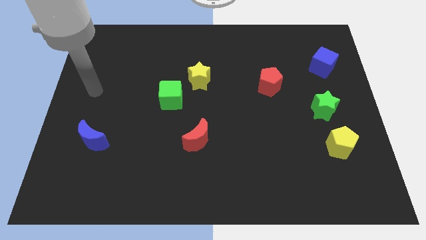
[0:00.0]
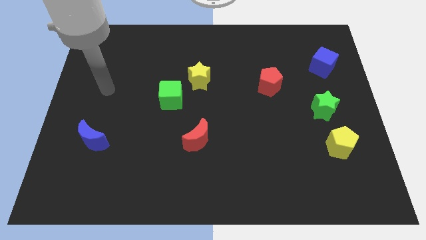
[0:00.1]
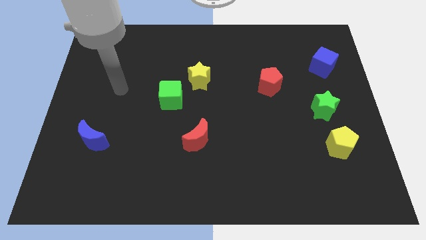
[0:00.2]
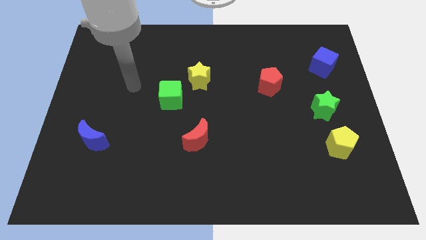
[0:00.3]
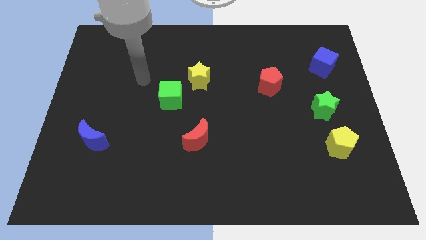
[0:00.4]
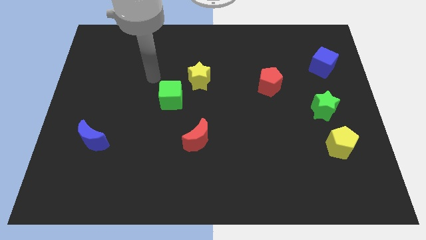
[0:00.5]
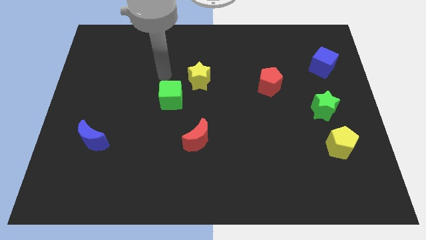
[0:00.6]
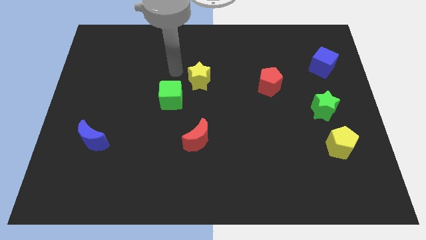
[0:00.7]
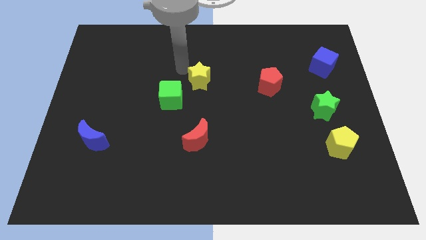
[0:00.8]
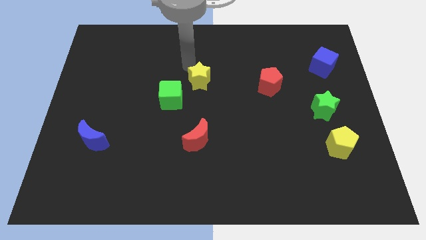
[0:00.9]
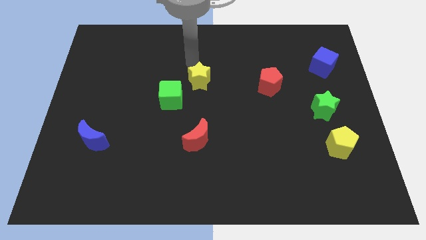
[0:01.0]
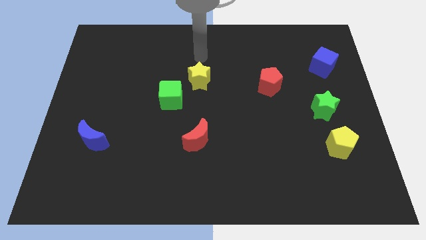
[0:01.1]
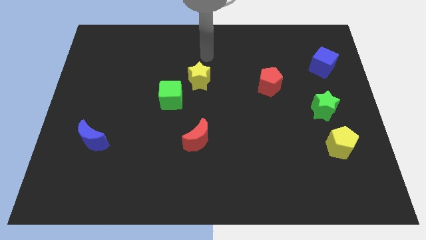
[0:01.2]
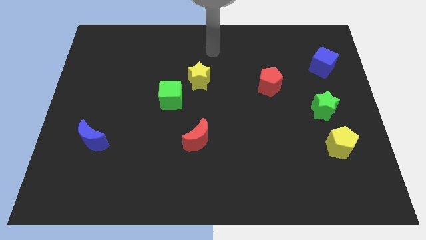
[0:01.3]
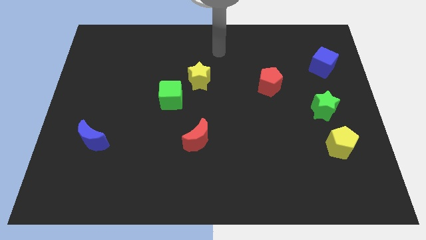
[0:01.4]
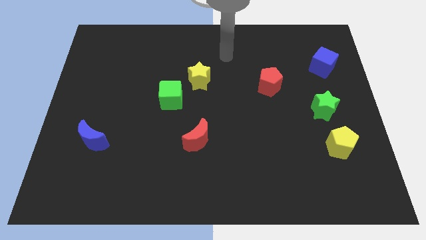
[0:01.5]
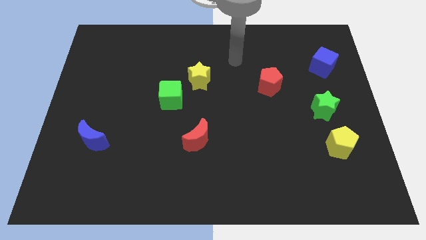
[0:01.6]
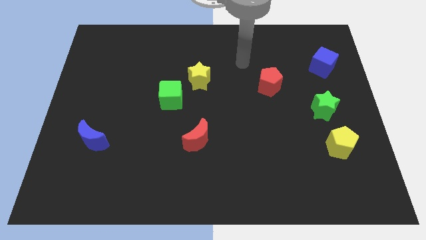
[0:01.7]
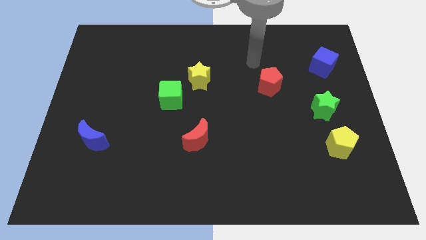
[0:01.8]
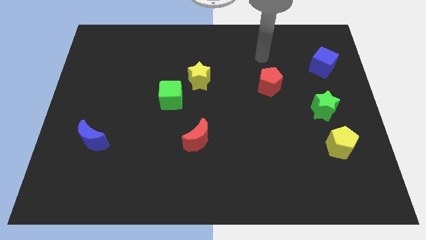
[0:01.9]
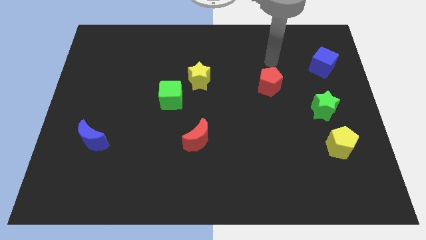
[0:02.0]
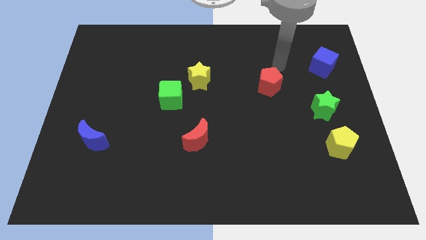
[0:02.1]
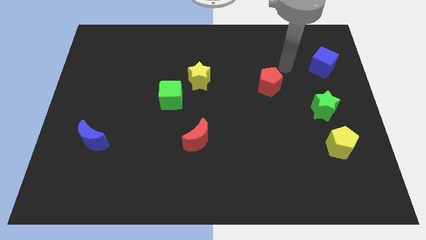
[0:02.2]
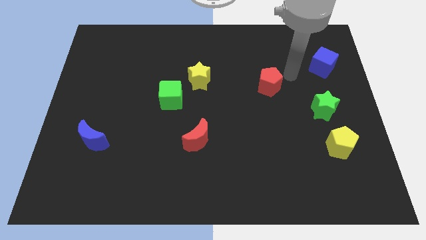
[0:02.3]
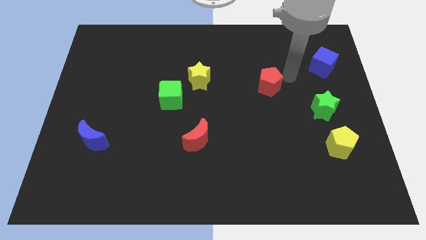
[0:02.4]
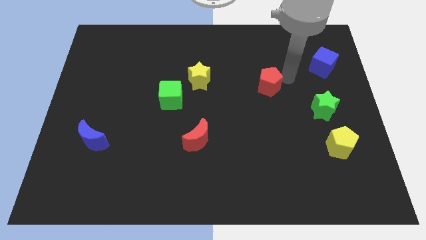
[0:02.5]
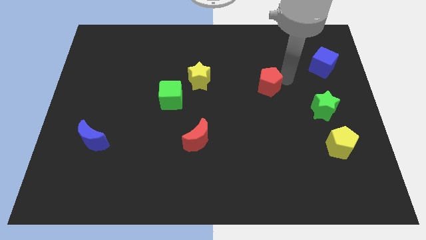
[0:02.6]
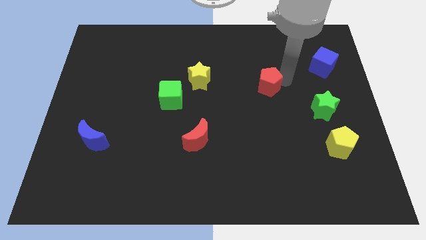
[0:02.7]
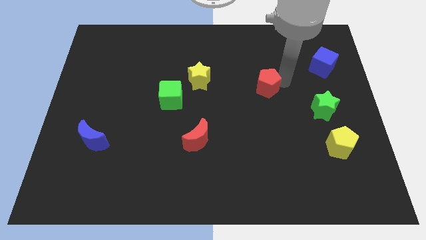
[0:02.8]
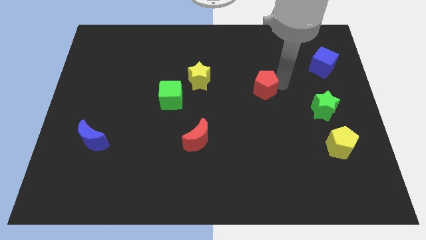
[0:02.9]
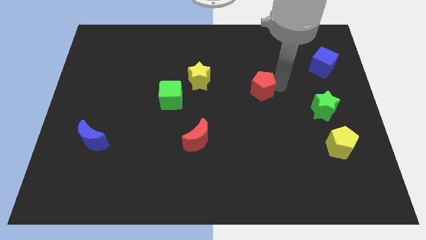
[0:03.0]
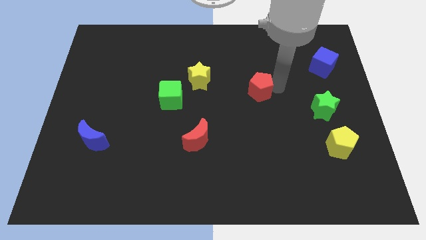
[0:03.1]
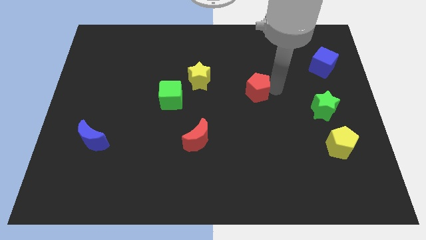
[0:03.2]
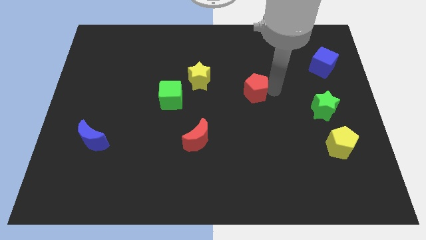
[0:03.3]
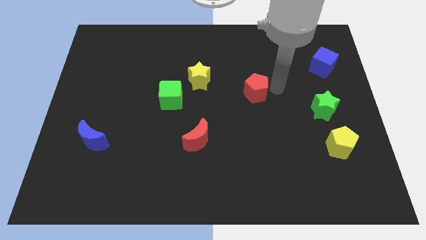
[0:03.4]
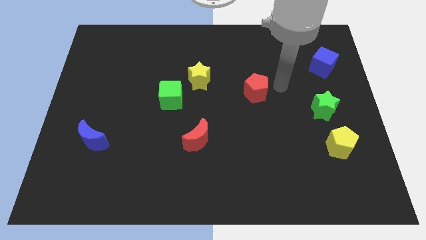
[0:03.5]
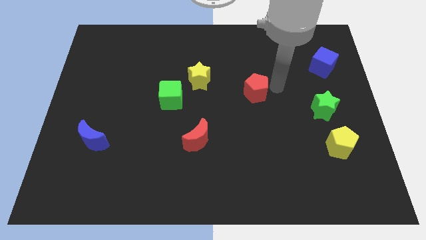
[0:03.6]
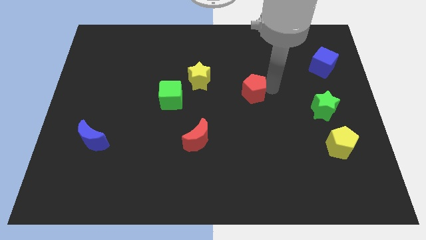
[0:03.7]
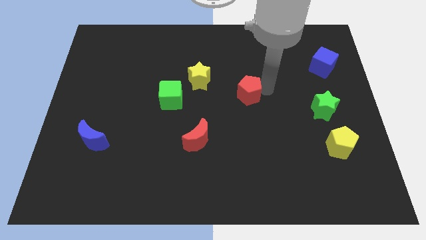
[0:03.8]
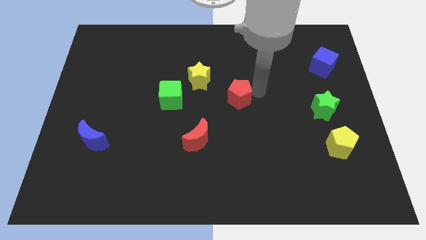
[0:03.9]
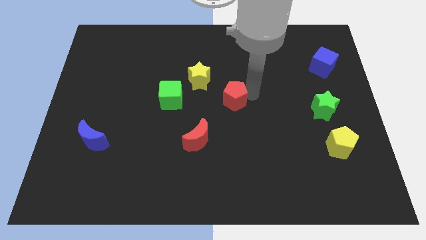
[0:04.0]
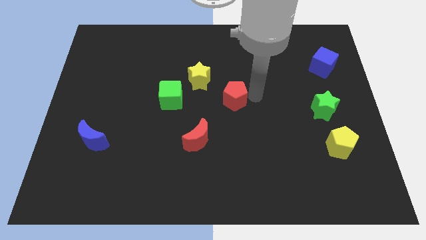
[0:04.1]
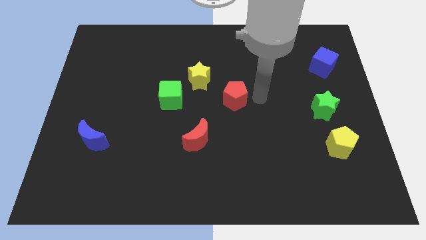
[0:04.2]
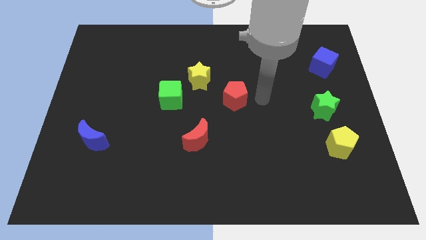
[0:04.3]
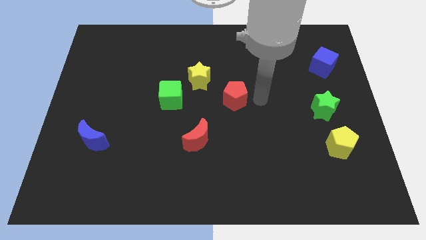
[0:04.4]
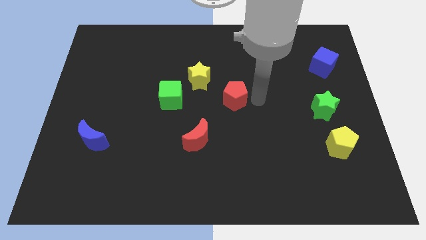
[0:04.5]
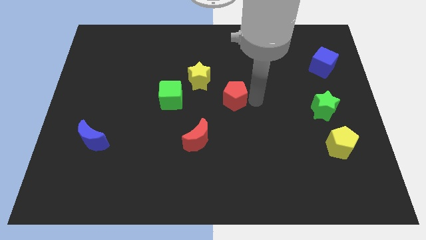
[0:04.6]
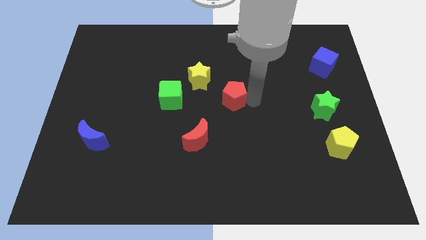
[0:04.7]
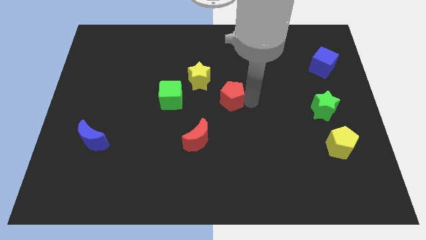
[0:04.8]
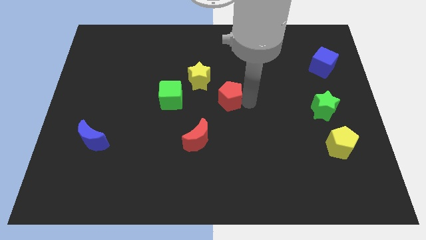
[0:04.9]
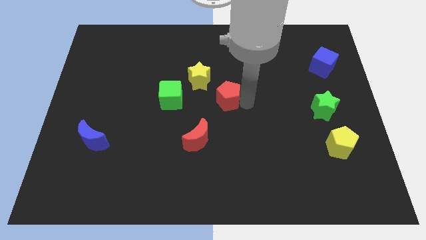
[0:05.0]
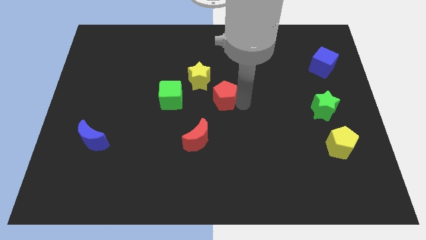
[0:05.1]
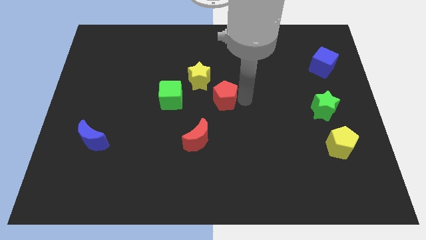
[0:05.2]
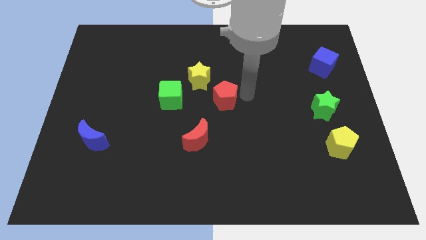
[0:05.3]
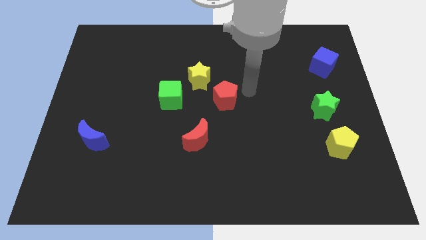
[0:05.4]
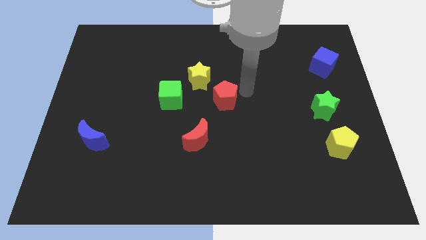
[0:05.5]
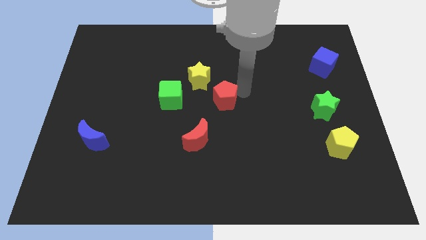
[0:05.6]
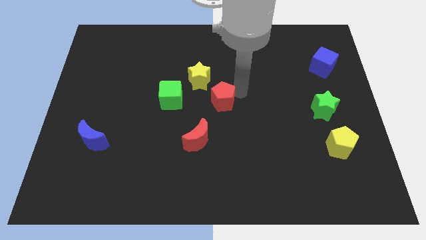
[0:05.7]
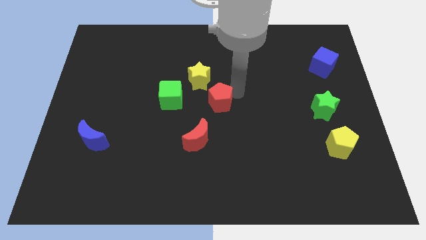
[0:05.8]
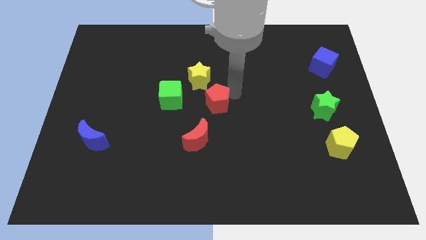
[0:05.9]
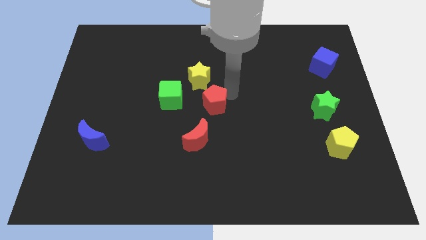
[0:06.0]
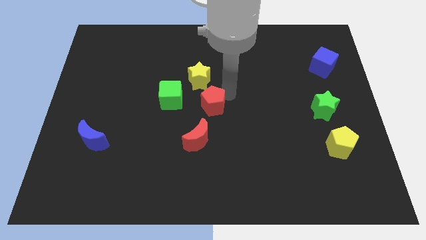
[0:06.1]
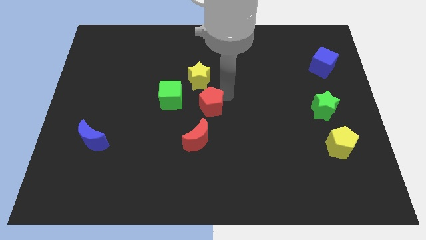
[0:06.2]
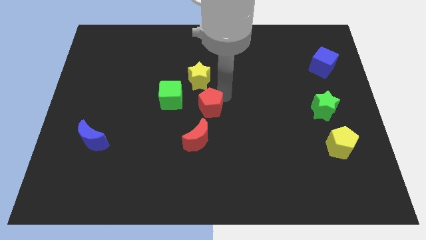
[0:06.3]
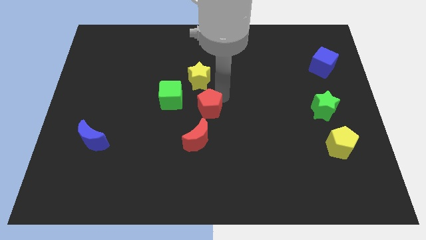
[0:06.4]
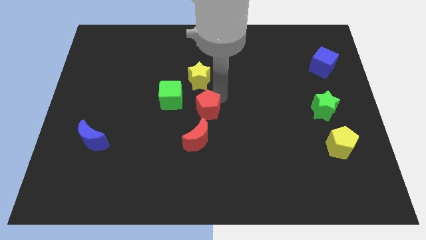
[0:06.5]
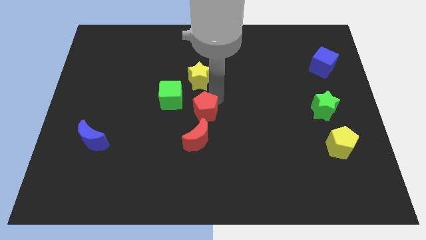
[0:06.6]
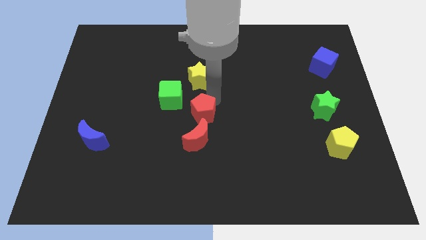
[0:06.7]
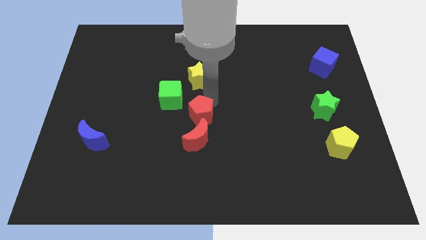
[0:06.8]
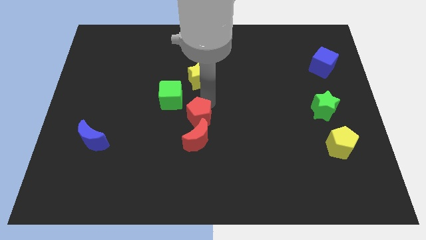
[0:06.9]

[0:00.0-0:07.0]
push the red pentagon diagonally up and to the left of the red moon
